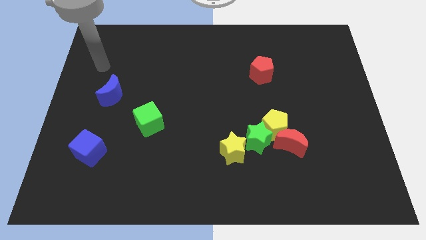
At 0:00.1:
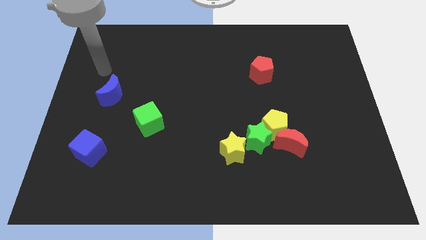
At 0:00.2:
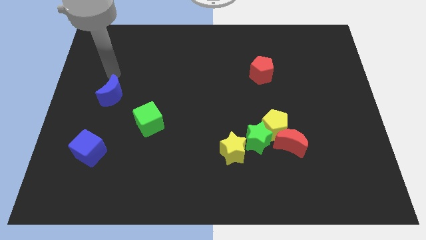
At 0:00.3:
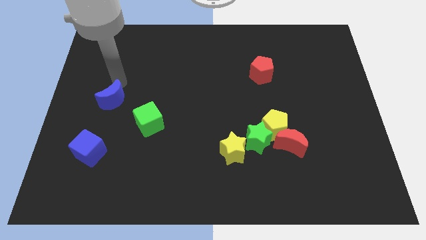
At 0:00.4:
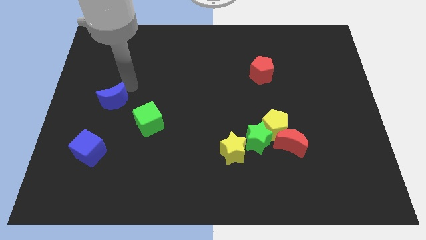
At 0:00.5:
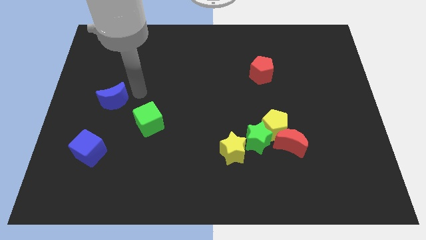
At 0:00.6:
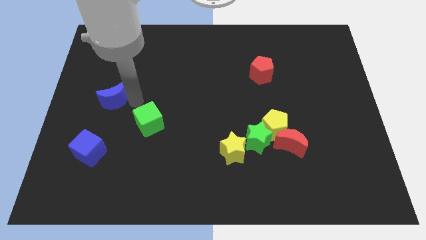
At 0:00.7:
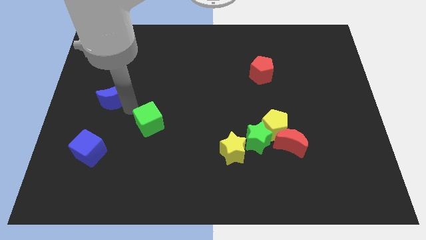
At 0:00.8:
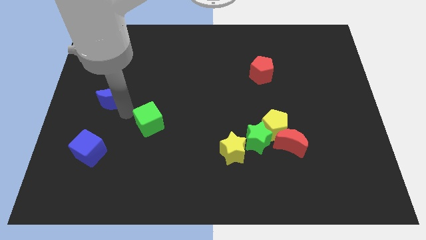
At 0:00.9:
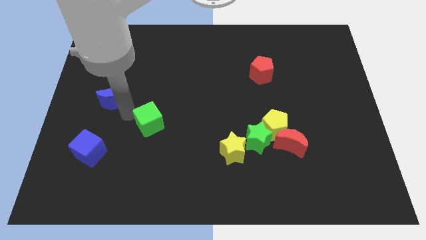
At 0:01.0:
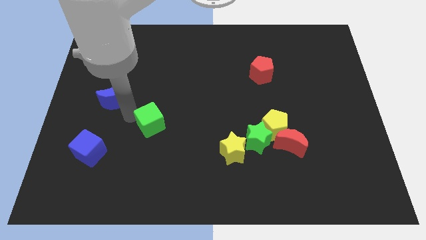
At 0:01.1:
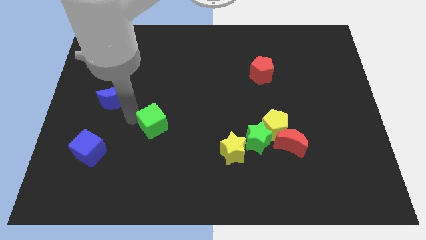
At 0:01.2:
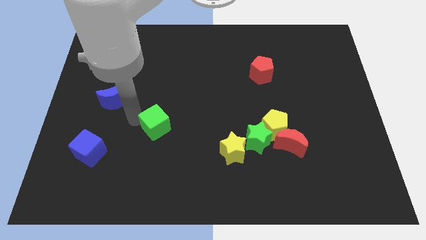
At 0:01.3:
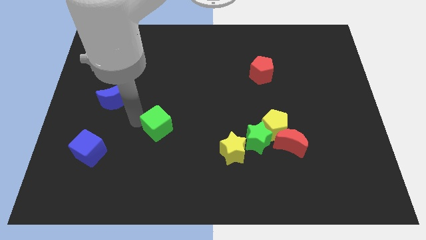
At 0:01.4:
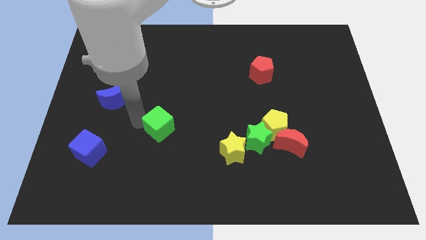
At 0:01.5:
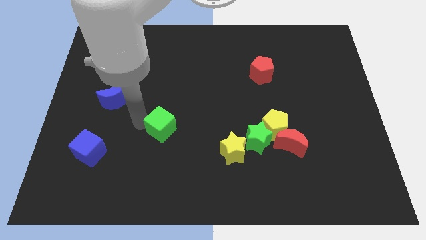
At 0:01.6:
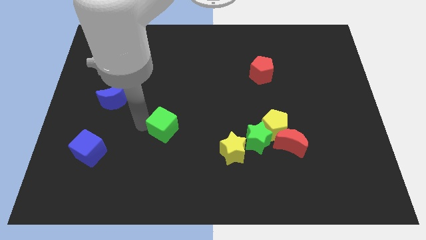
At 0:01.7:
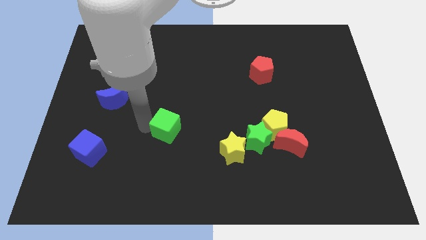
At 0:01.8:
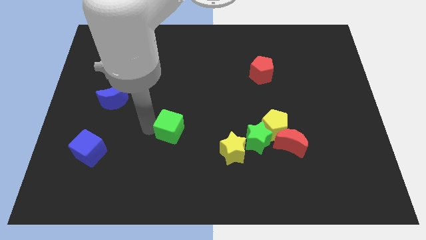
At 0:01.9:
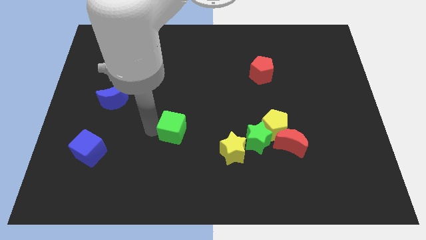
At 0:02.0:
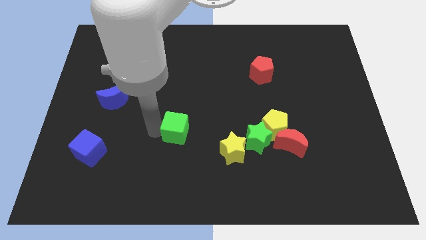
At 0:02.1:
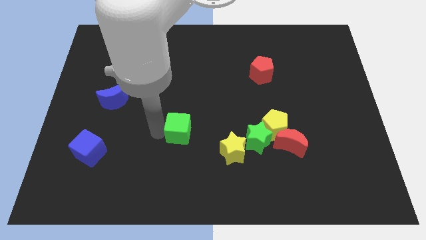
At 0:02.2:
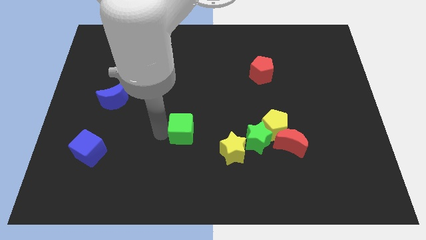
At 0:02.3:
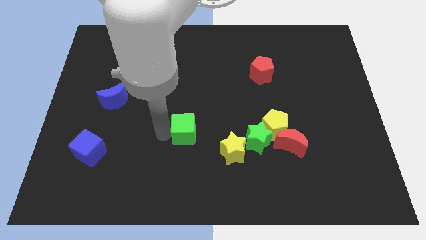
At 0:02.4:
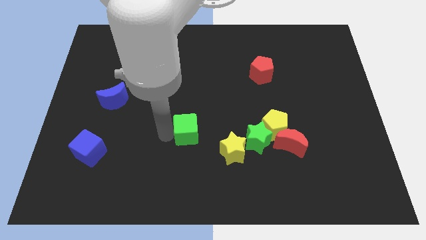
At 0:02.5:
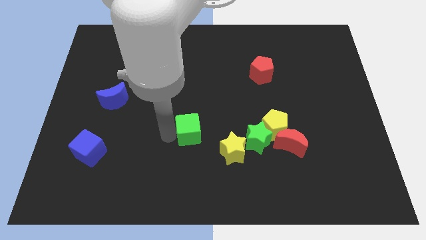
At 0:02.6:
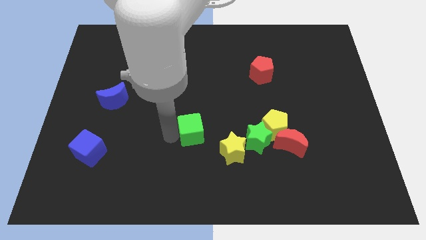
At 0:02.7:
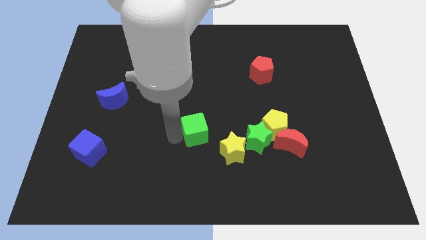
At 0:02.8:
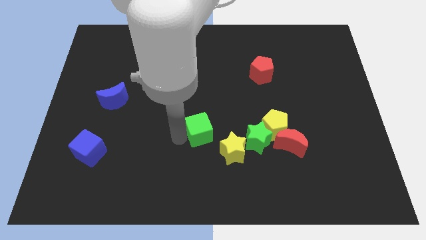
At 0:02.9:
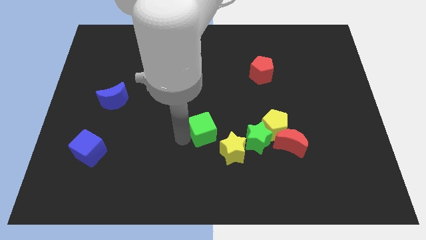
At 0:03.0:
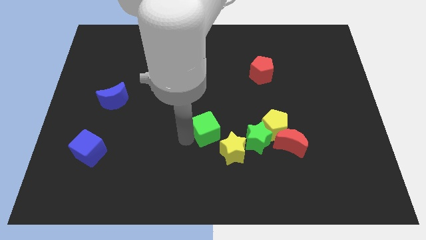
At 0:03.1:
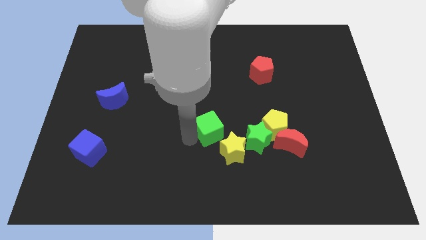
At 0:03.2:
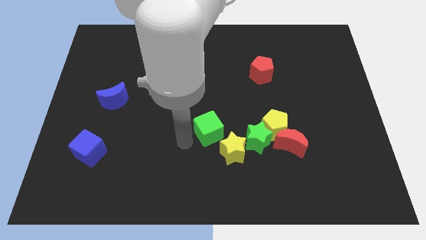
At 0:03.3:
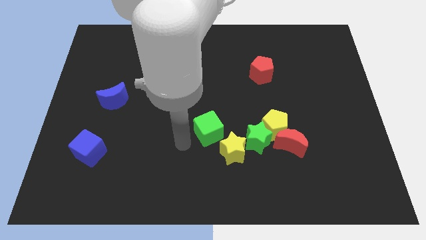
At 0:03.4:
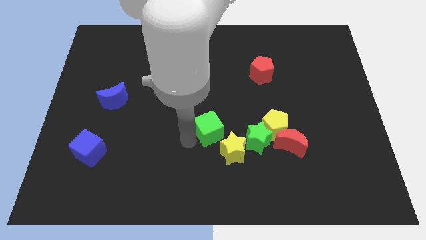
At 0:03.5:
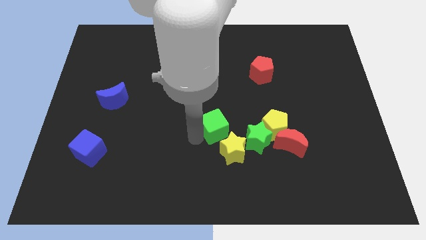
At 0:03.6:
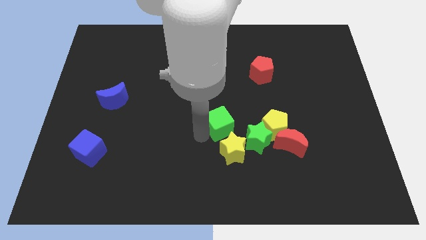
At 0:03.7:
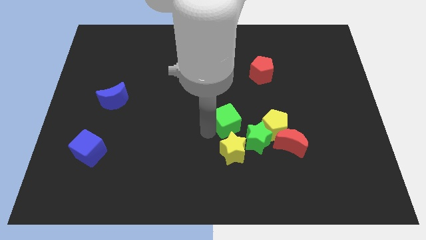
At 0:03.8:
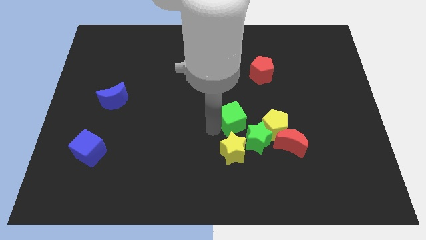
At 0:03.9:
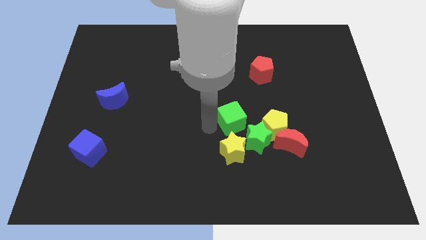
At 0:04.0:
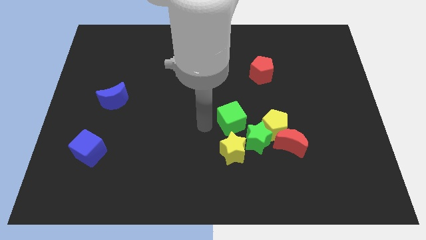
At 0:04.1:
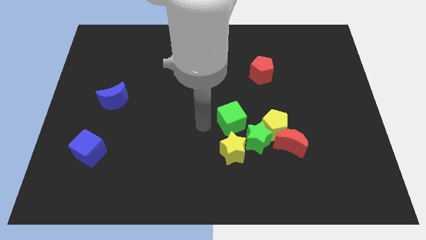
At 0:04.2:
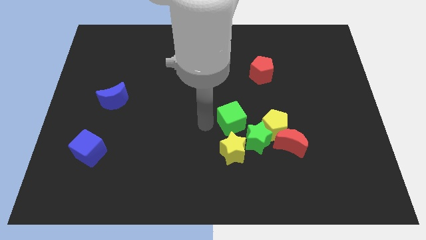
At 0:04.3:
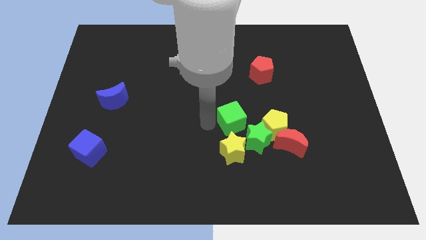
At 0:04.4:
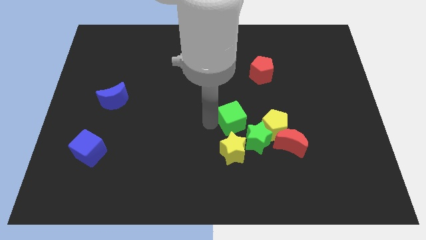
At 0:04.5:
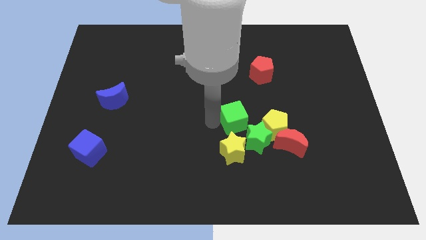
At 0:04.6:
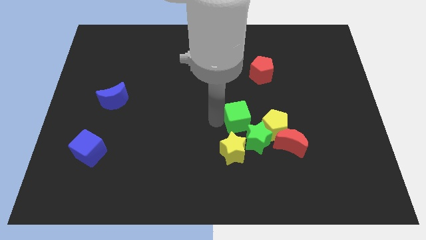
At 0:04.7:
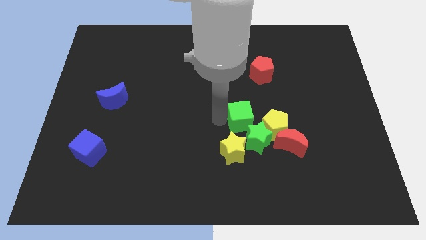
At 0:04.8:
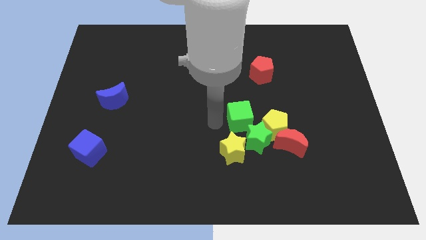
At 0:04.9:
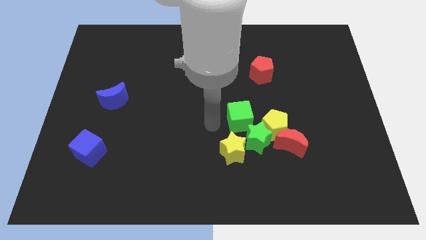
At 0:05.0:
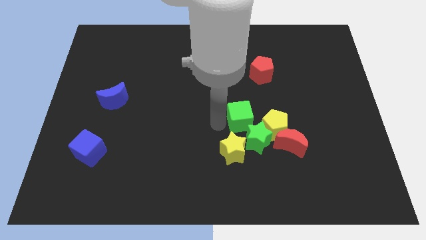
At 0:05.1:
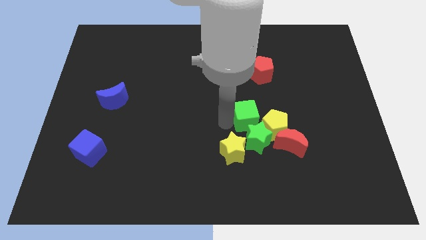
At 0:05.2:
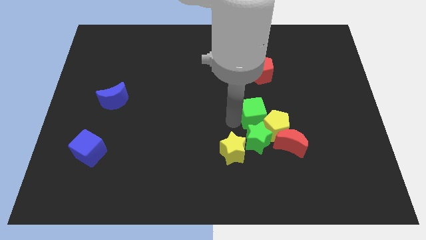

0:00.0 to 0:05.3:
slide the green cube diagonally up and to the right of the green star

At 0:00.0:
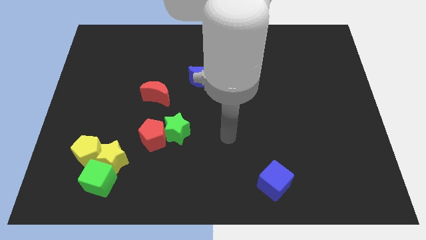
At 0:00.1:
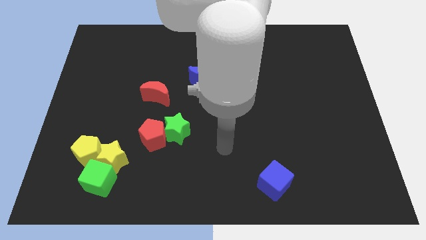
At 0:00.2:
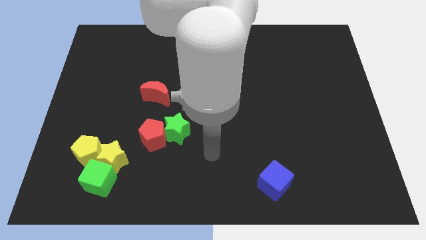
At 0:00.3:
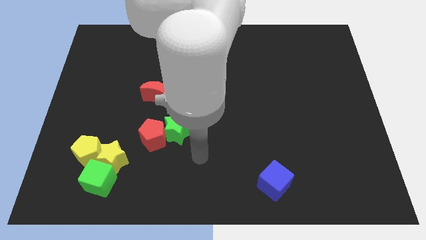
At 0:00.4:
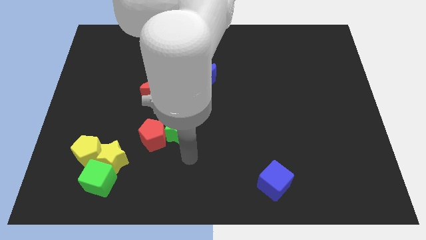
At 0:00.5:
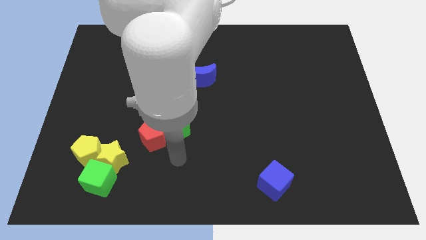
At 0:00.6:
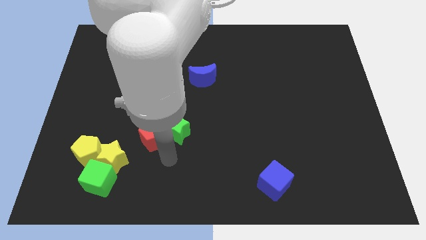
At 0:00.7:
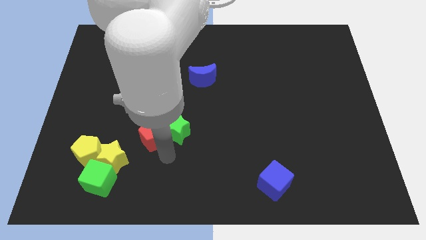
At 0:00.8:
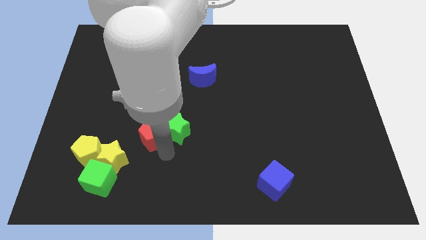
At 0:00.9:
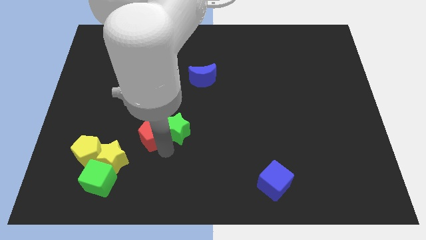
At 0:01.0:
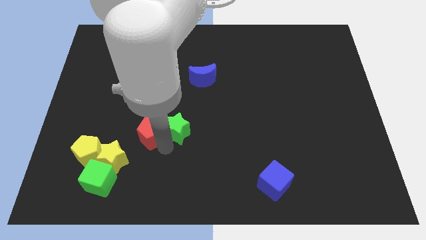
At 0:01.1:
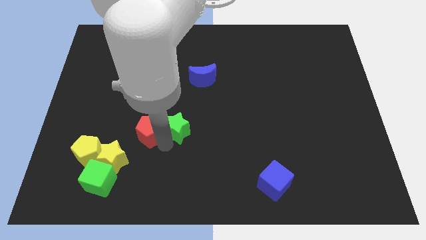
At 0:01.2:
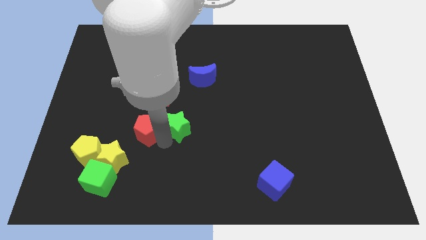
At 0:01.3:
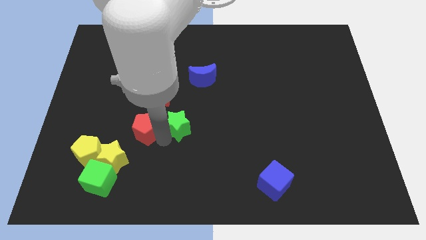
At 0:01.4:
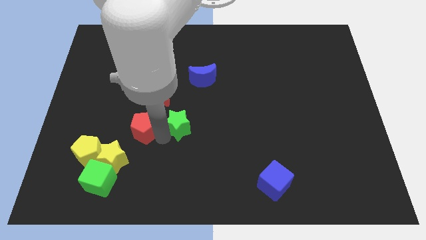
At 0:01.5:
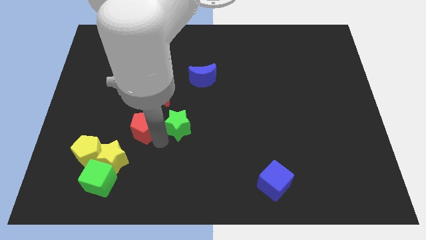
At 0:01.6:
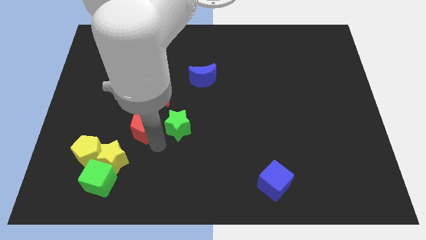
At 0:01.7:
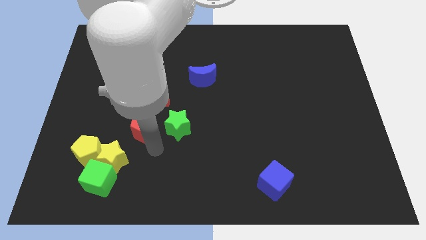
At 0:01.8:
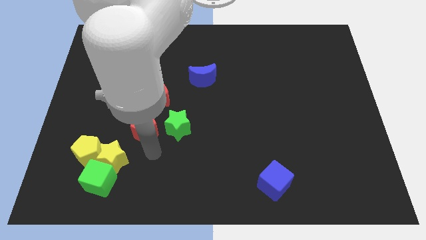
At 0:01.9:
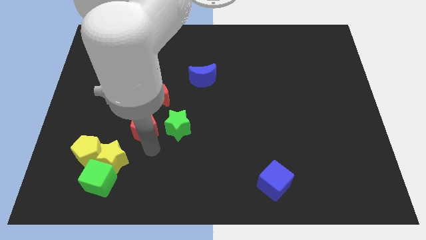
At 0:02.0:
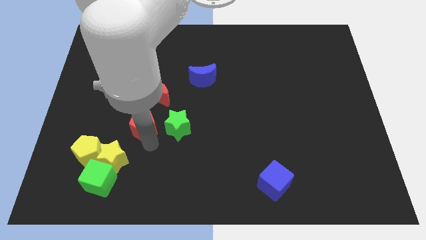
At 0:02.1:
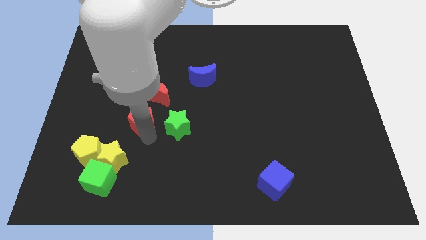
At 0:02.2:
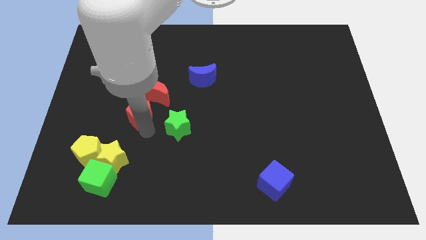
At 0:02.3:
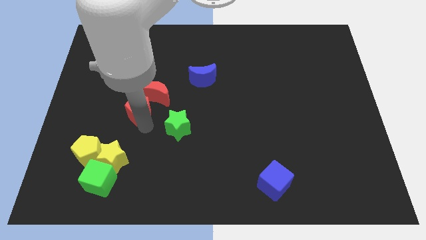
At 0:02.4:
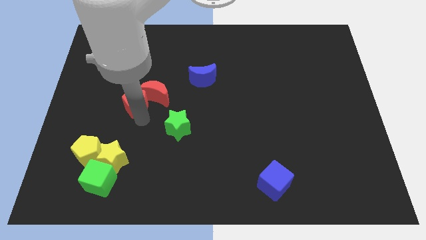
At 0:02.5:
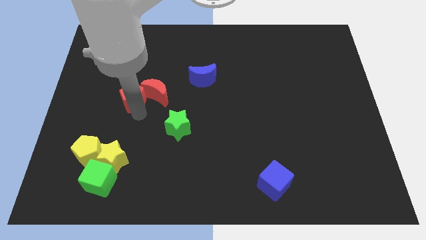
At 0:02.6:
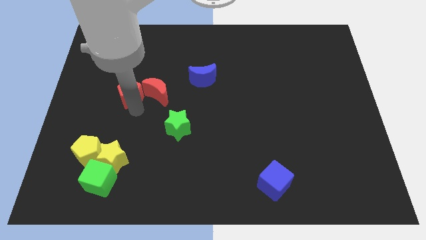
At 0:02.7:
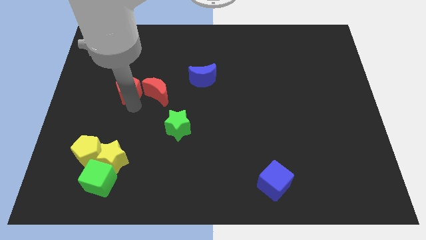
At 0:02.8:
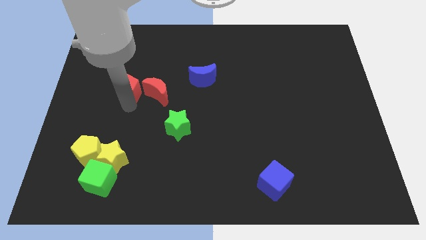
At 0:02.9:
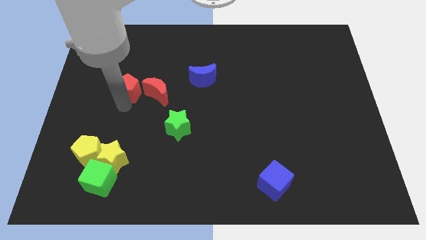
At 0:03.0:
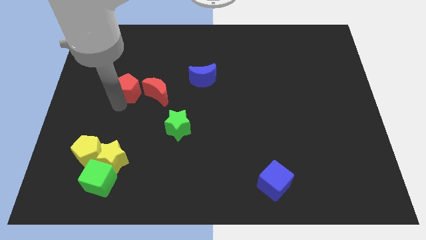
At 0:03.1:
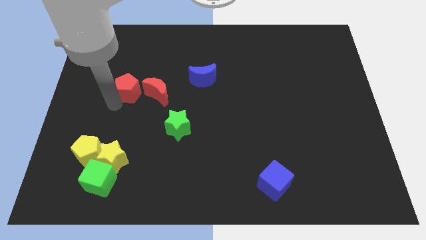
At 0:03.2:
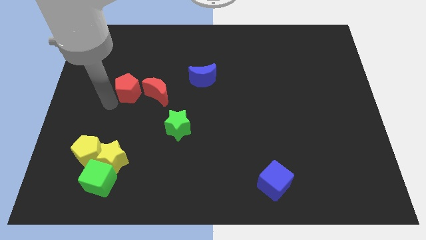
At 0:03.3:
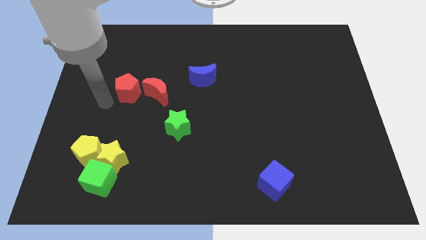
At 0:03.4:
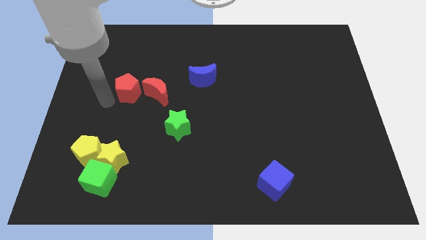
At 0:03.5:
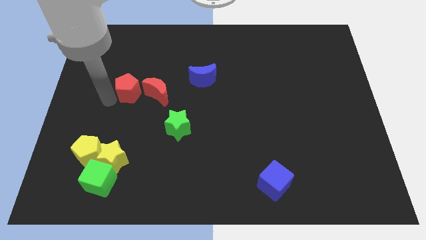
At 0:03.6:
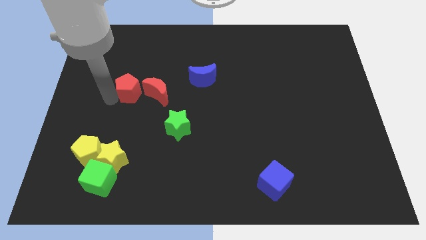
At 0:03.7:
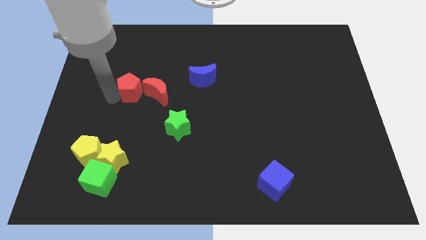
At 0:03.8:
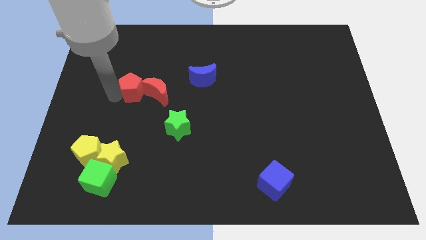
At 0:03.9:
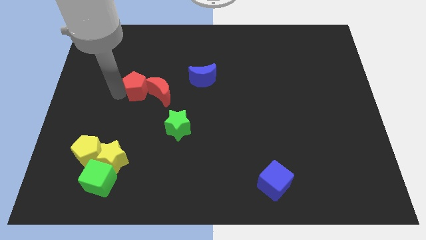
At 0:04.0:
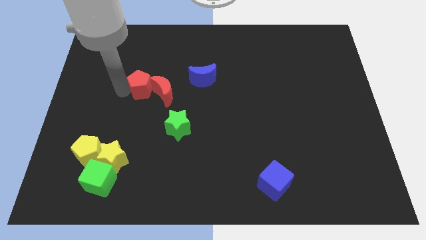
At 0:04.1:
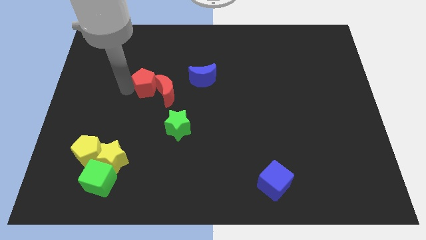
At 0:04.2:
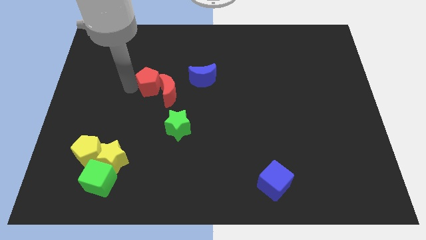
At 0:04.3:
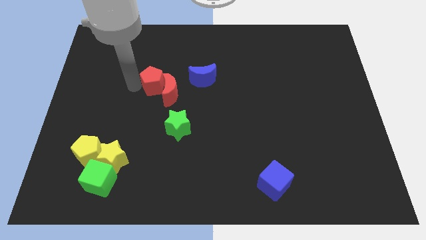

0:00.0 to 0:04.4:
push the red pentagon to the top of the red moon
